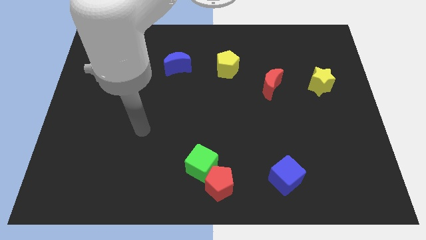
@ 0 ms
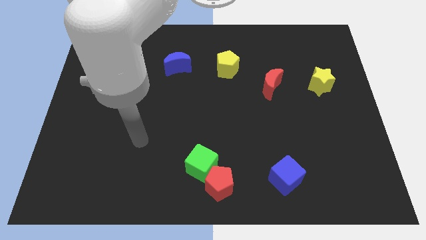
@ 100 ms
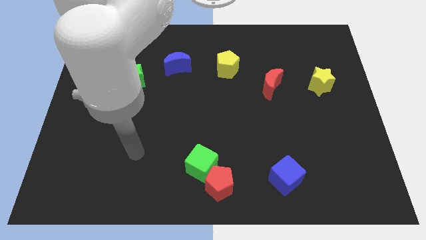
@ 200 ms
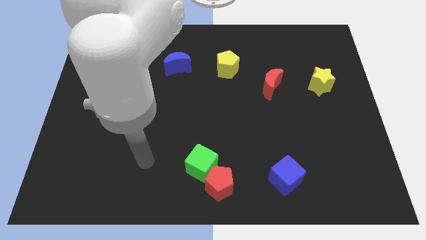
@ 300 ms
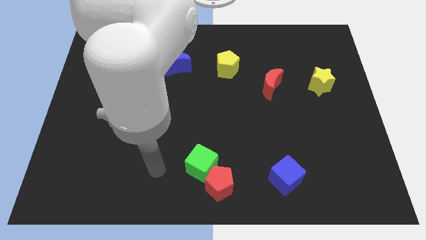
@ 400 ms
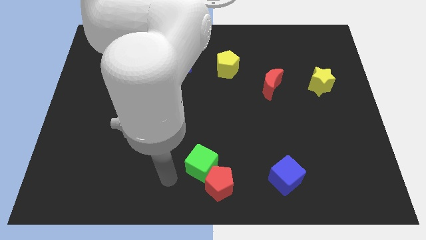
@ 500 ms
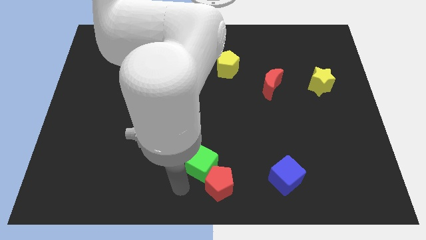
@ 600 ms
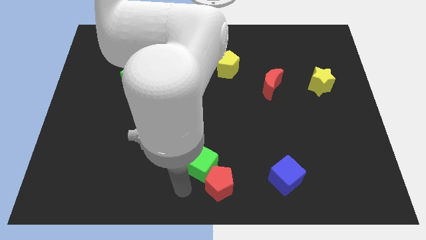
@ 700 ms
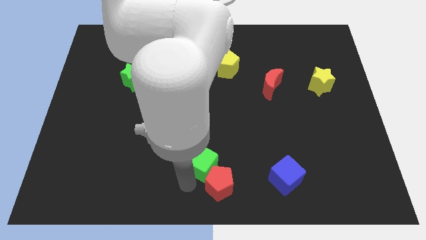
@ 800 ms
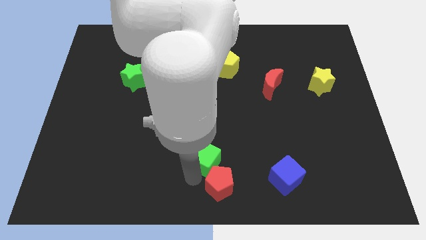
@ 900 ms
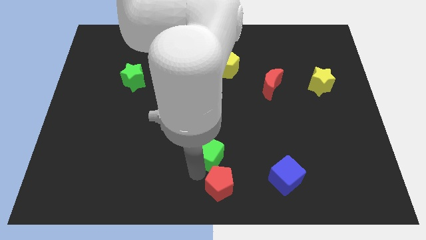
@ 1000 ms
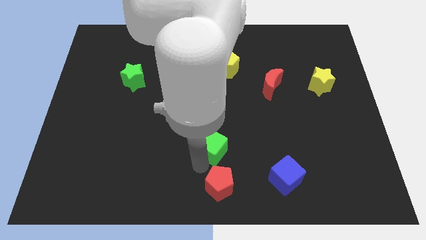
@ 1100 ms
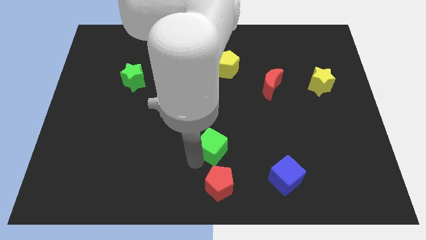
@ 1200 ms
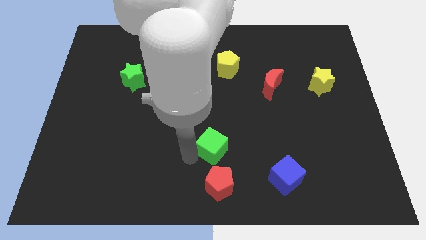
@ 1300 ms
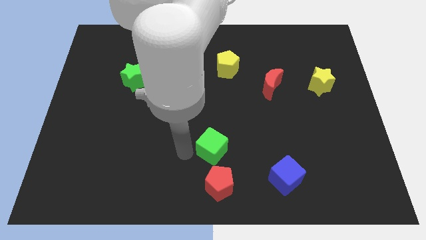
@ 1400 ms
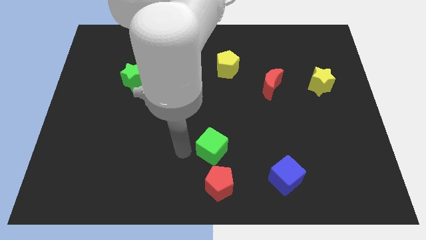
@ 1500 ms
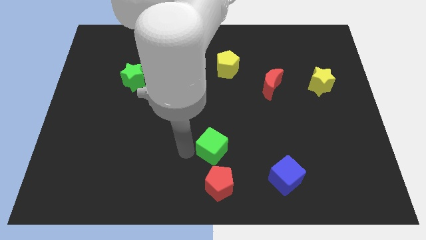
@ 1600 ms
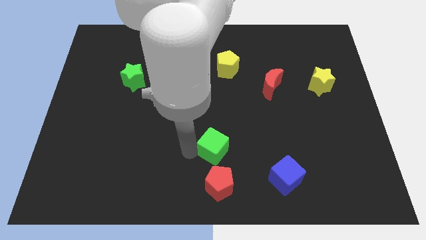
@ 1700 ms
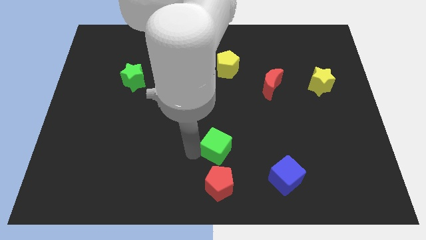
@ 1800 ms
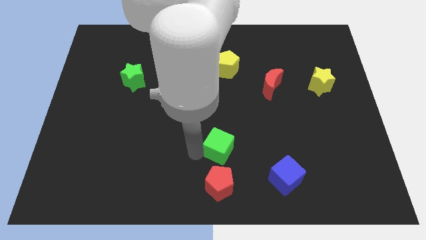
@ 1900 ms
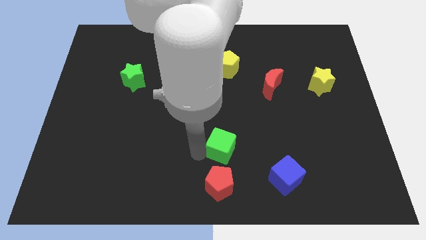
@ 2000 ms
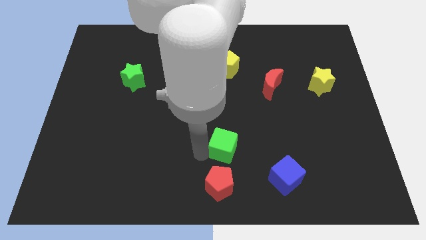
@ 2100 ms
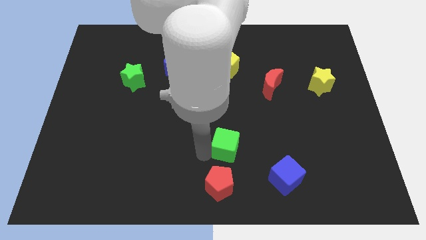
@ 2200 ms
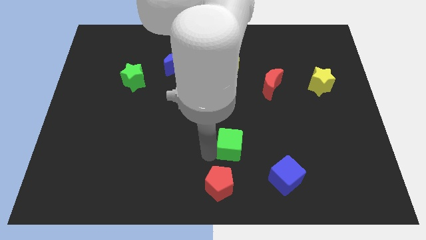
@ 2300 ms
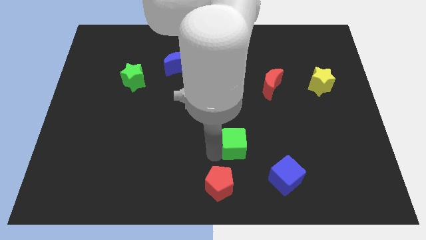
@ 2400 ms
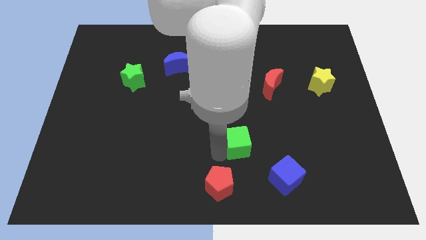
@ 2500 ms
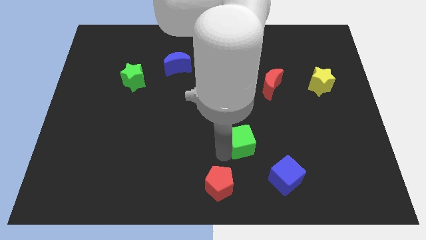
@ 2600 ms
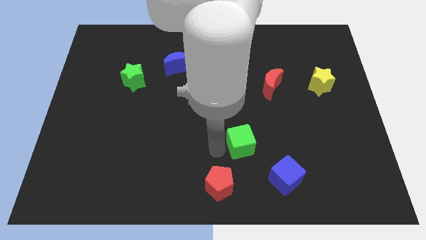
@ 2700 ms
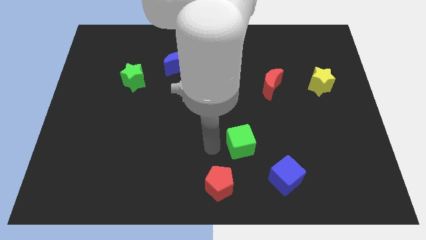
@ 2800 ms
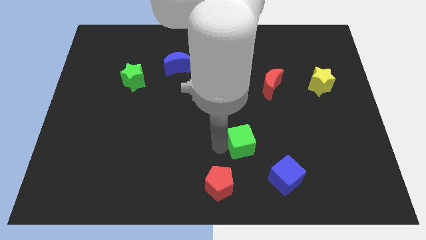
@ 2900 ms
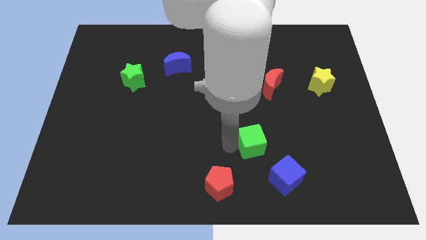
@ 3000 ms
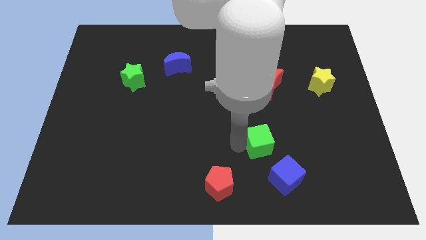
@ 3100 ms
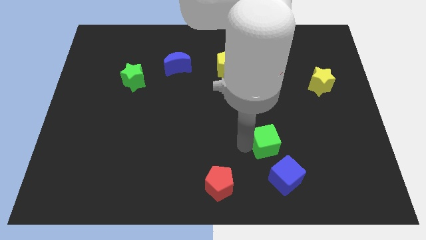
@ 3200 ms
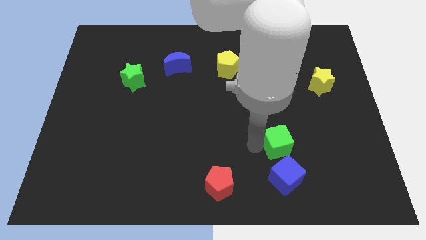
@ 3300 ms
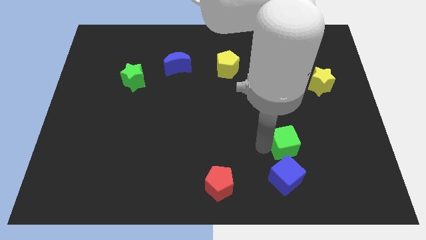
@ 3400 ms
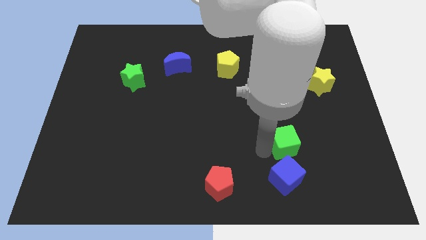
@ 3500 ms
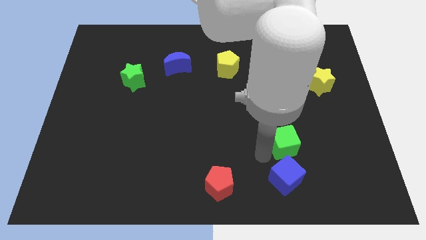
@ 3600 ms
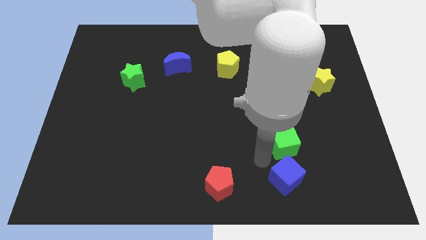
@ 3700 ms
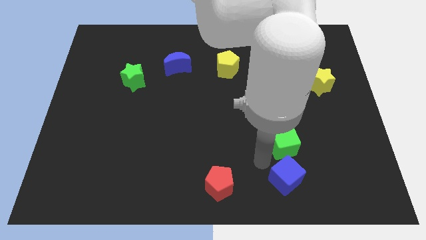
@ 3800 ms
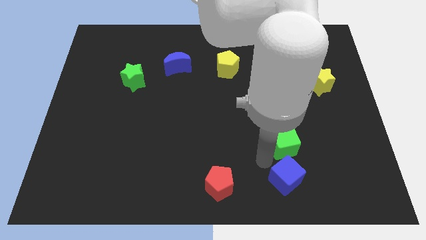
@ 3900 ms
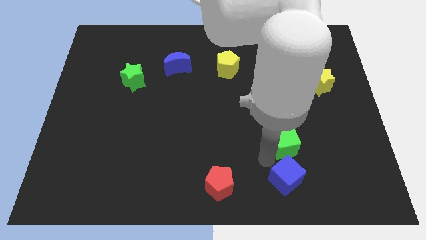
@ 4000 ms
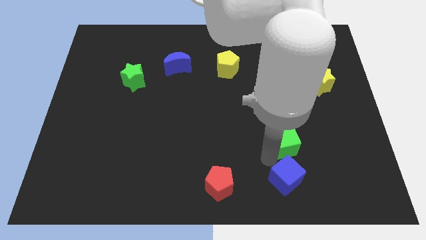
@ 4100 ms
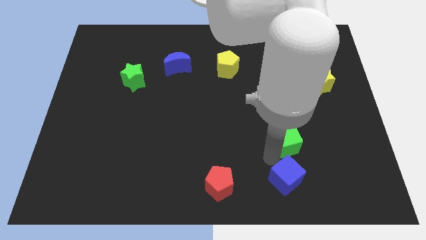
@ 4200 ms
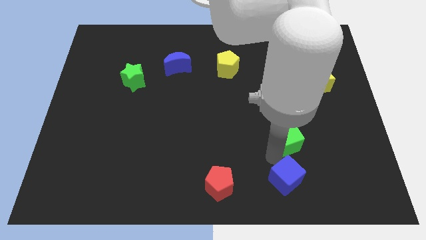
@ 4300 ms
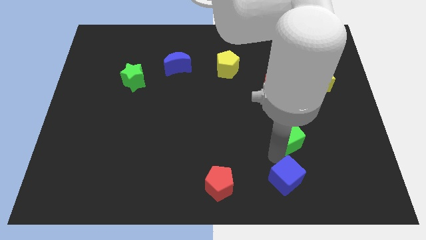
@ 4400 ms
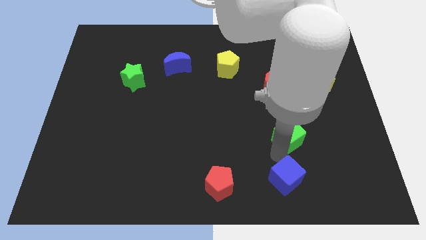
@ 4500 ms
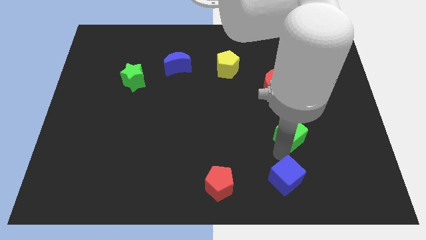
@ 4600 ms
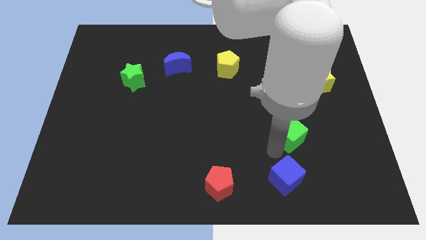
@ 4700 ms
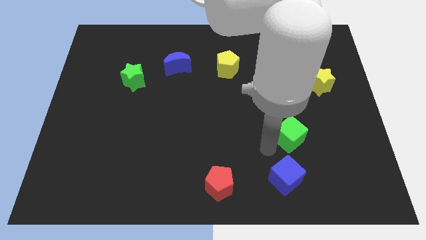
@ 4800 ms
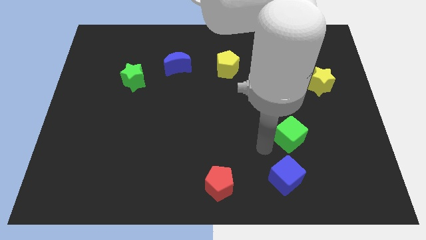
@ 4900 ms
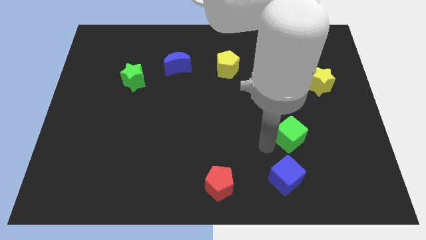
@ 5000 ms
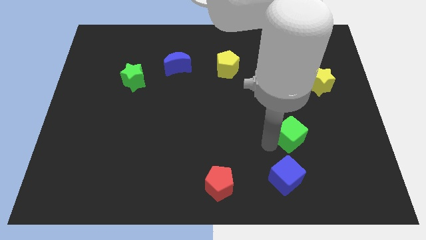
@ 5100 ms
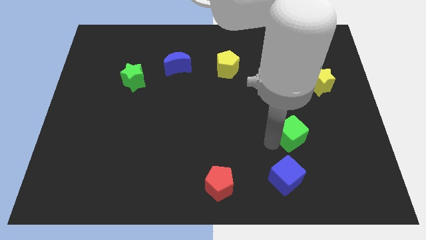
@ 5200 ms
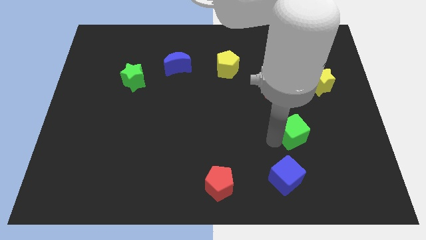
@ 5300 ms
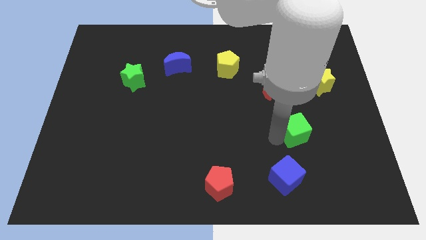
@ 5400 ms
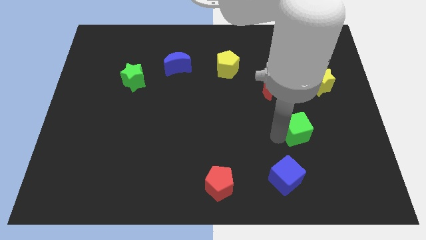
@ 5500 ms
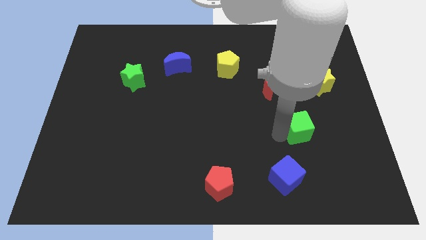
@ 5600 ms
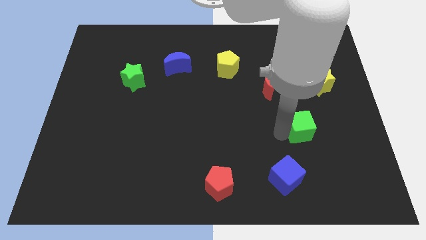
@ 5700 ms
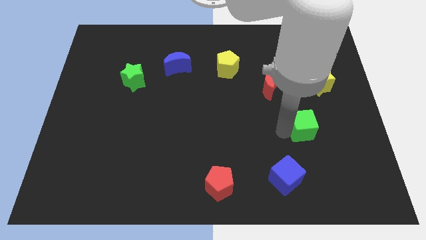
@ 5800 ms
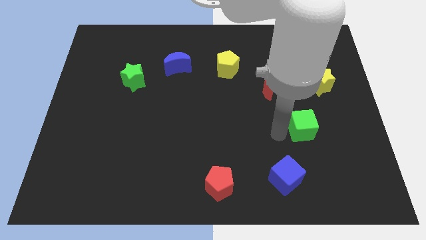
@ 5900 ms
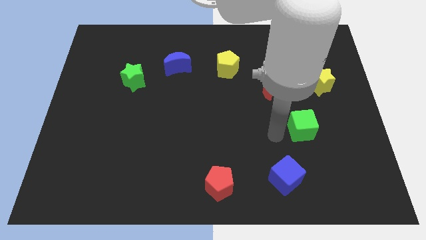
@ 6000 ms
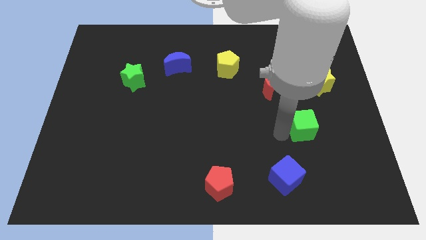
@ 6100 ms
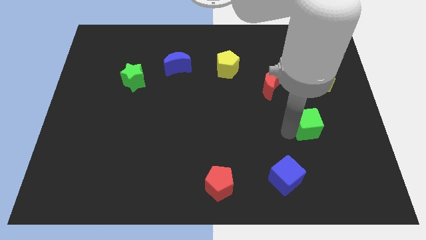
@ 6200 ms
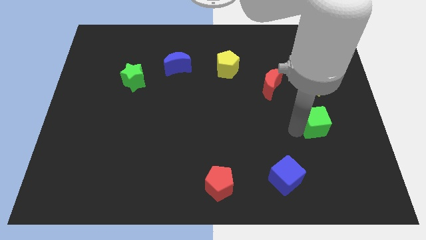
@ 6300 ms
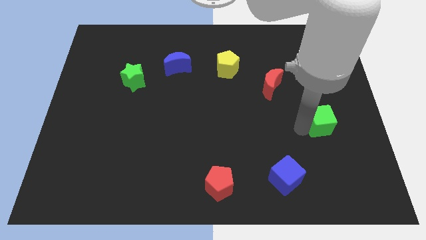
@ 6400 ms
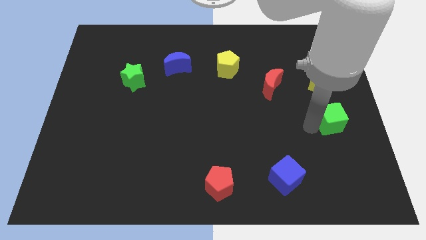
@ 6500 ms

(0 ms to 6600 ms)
push the green cube to the right side of the board

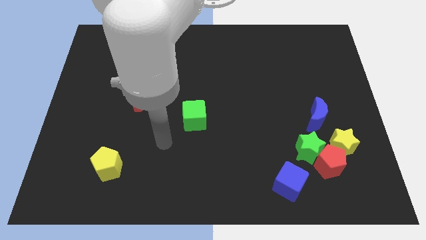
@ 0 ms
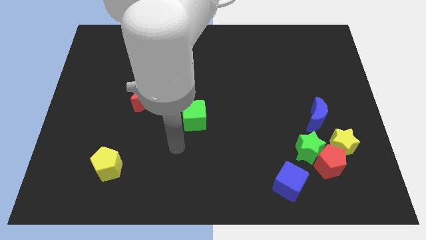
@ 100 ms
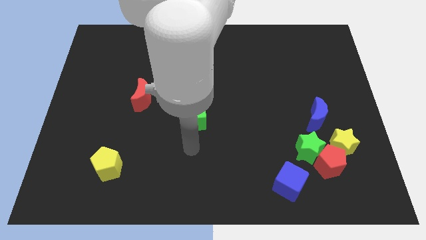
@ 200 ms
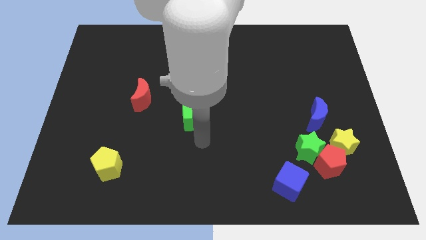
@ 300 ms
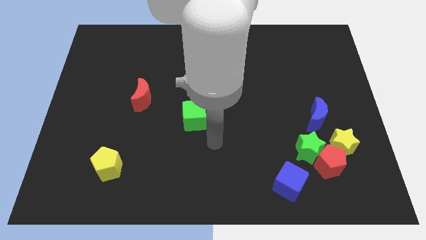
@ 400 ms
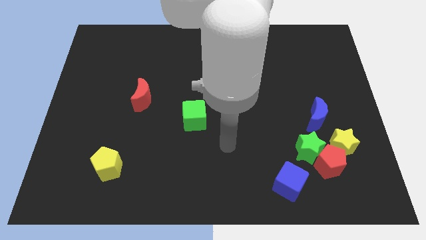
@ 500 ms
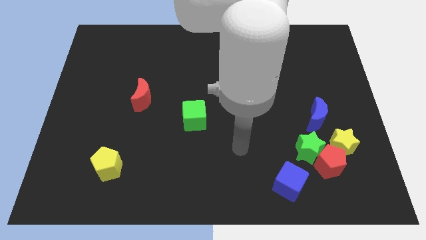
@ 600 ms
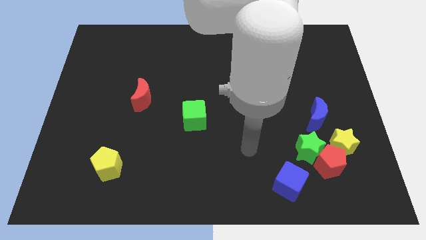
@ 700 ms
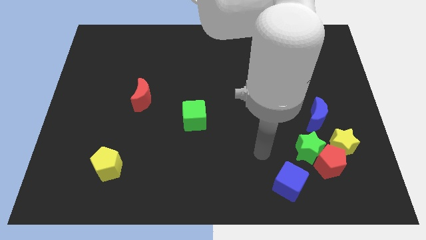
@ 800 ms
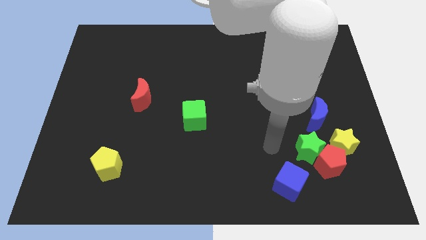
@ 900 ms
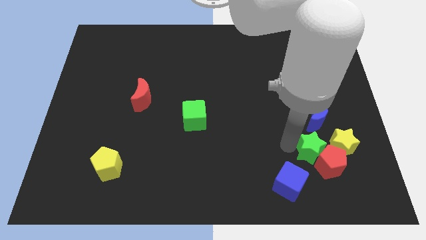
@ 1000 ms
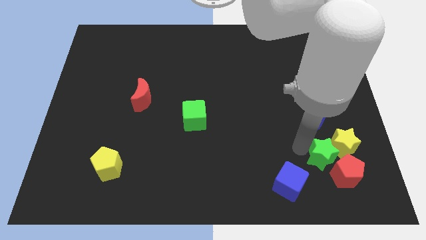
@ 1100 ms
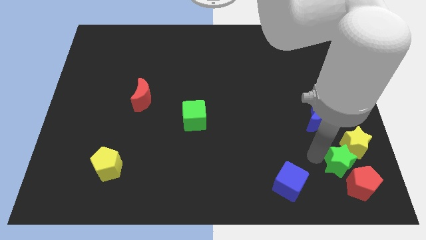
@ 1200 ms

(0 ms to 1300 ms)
move the red pentagon to the lower right corner
